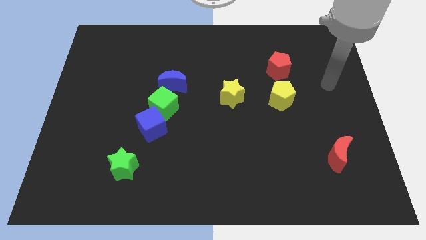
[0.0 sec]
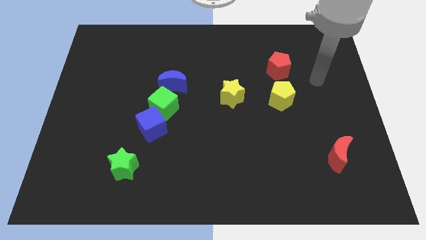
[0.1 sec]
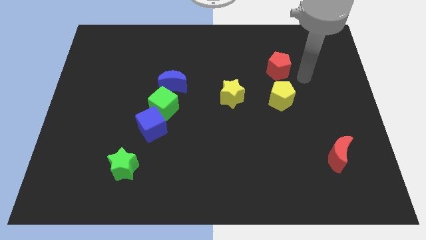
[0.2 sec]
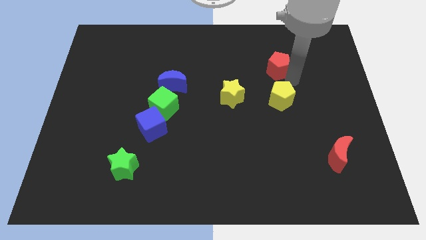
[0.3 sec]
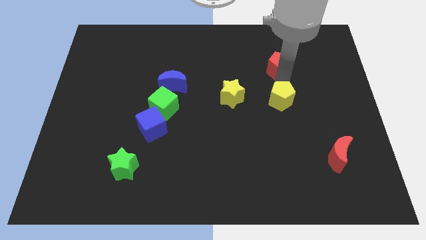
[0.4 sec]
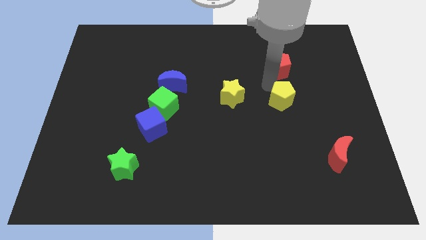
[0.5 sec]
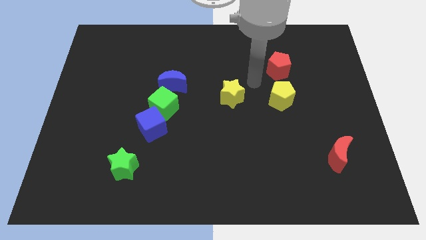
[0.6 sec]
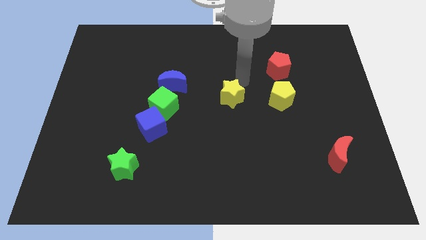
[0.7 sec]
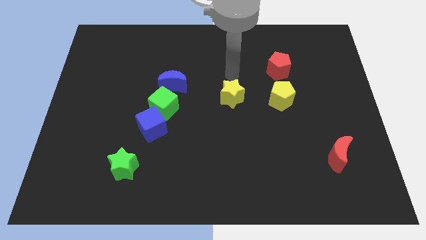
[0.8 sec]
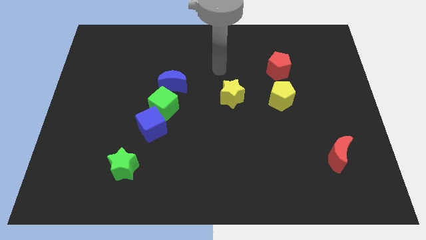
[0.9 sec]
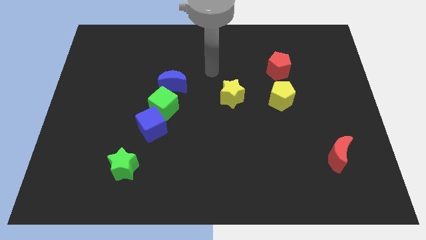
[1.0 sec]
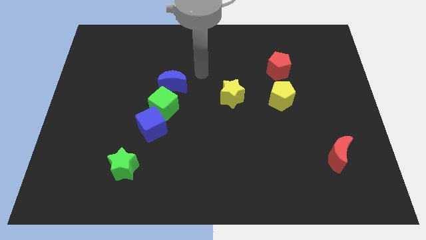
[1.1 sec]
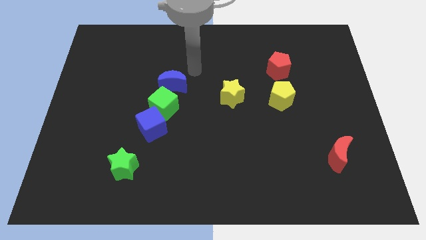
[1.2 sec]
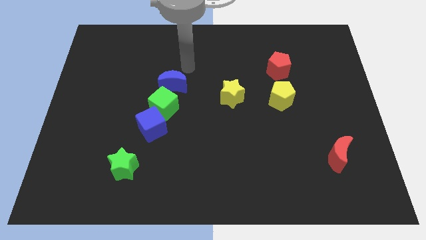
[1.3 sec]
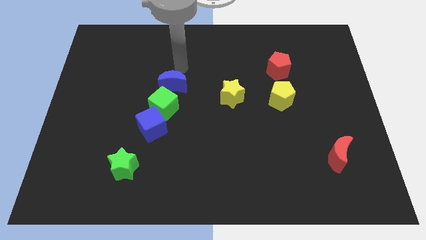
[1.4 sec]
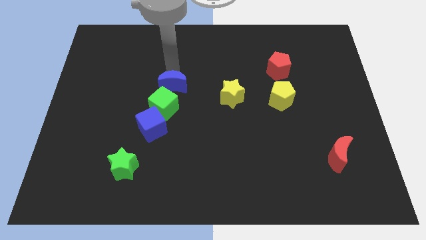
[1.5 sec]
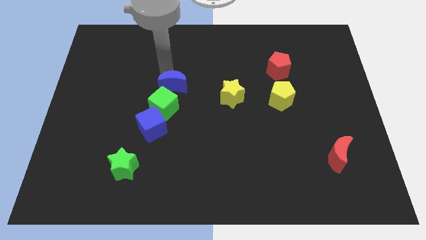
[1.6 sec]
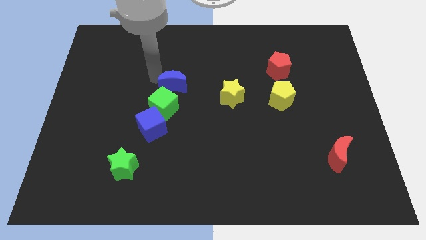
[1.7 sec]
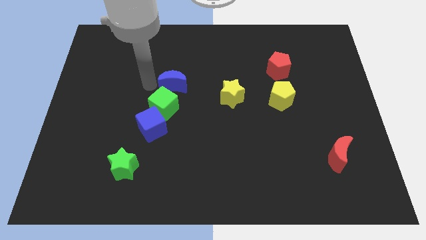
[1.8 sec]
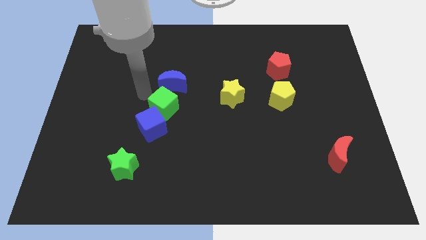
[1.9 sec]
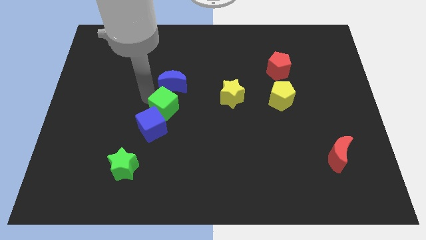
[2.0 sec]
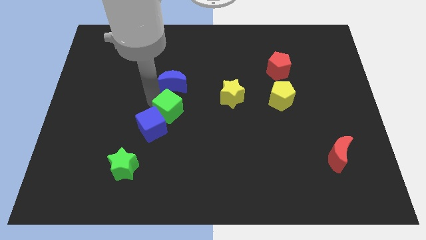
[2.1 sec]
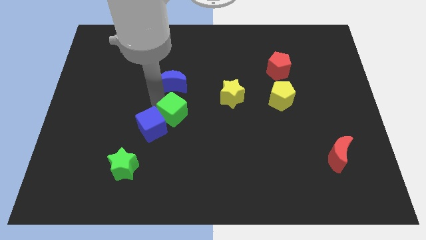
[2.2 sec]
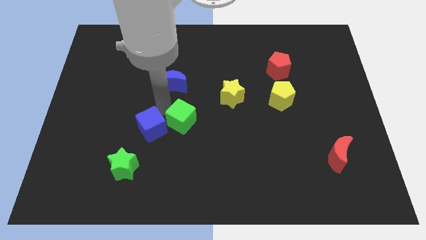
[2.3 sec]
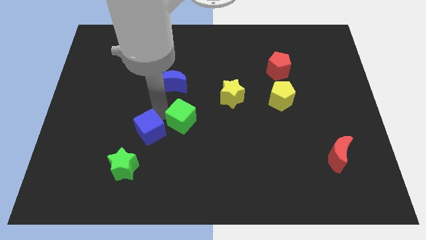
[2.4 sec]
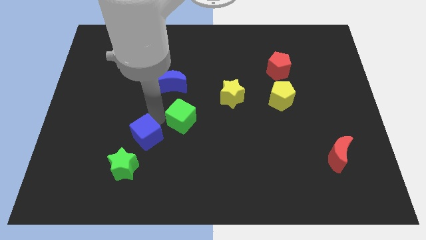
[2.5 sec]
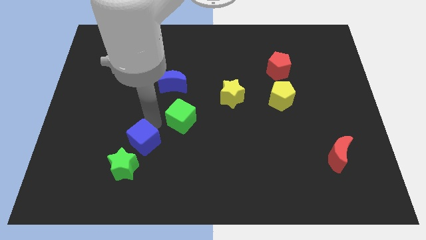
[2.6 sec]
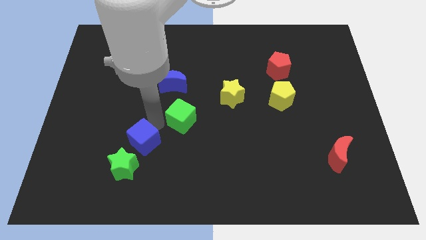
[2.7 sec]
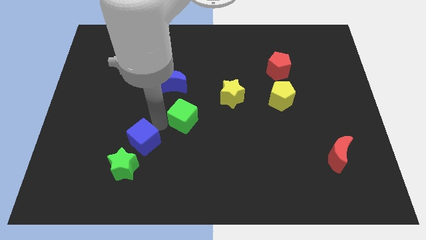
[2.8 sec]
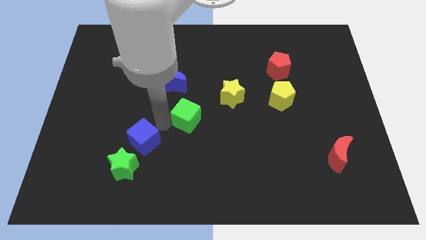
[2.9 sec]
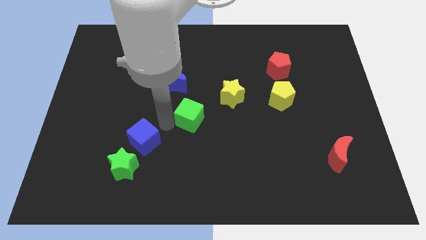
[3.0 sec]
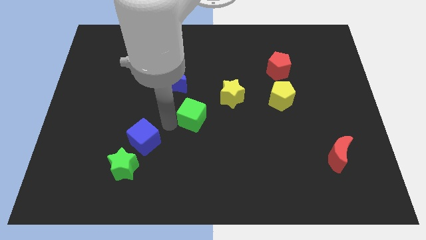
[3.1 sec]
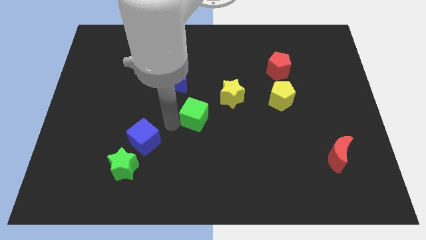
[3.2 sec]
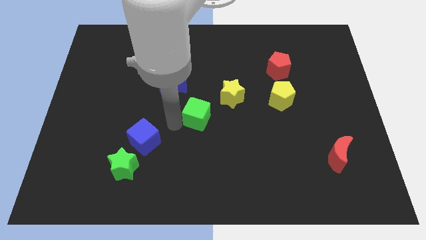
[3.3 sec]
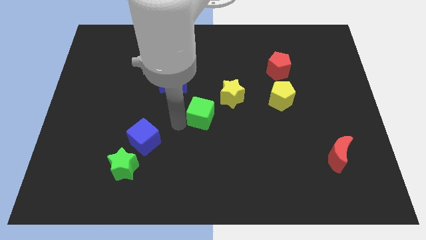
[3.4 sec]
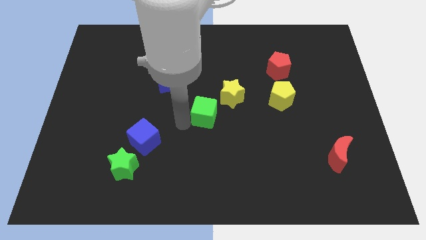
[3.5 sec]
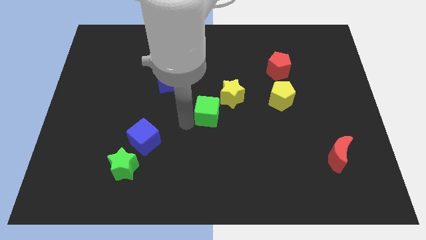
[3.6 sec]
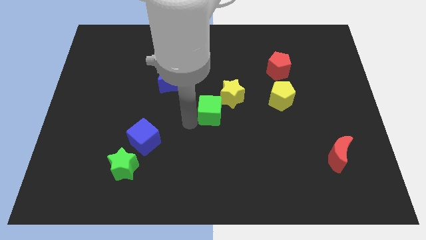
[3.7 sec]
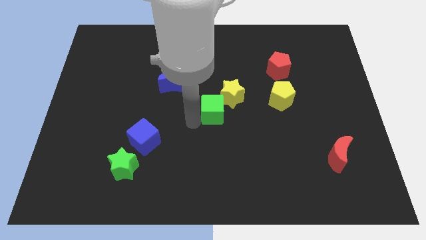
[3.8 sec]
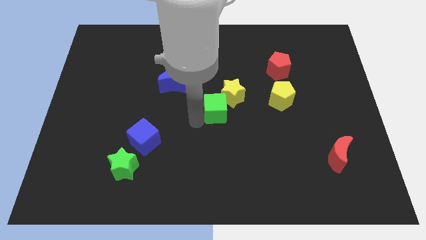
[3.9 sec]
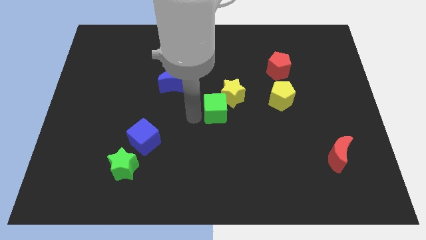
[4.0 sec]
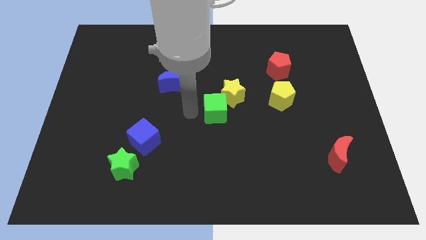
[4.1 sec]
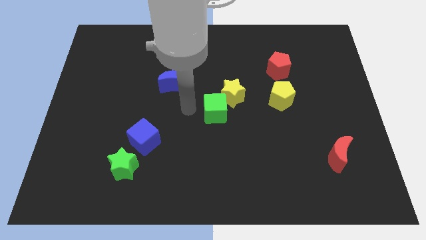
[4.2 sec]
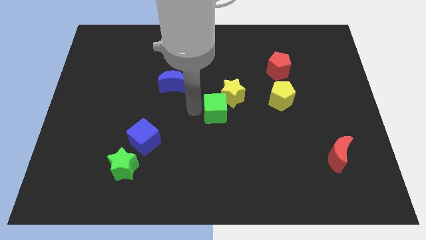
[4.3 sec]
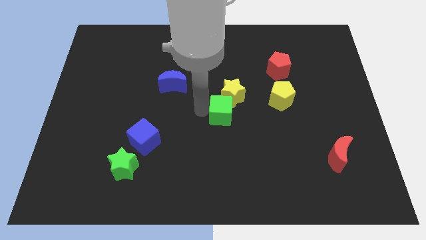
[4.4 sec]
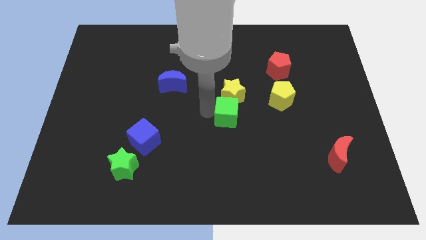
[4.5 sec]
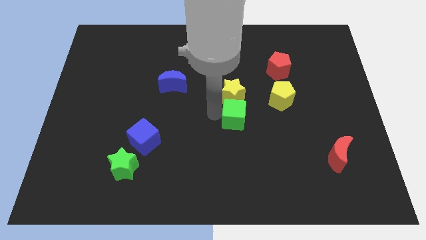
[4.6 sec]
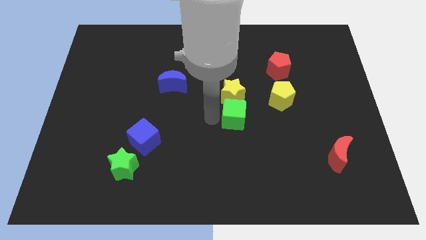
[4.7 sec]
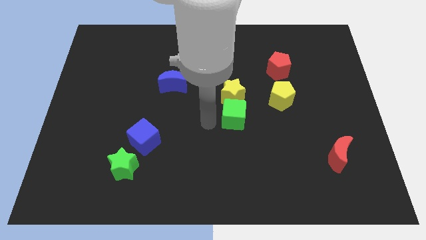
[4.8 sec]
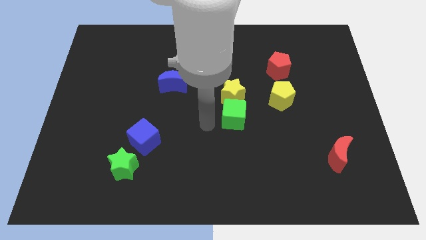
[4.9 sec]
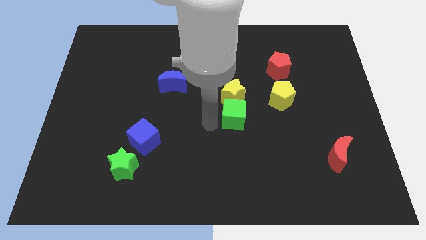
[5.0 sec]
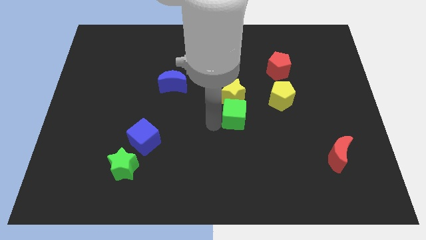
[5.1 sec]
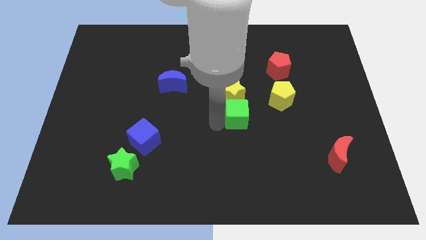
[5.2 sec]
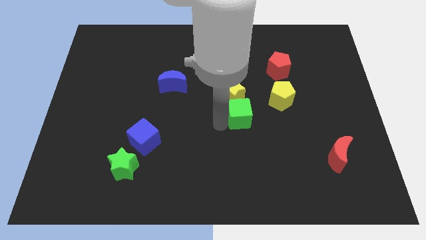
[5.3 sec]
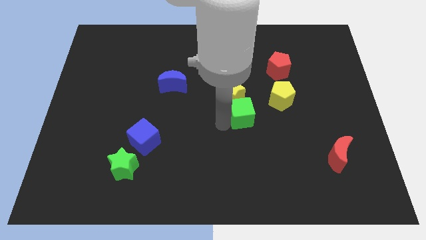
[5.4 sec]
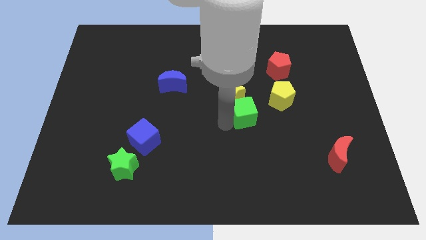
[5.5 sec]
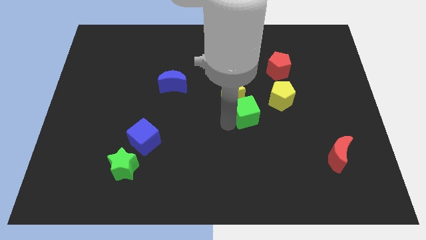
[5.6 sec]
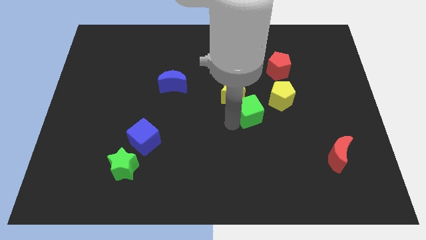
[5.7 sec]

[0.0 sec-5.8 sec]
move the green cube right

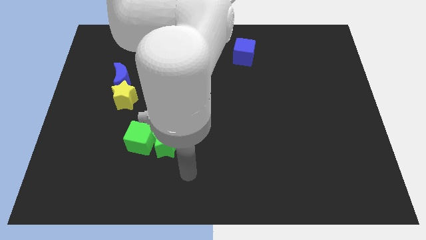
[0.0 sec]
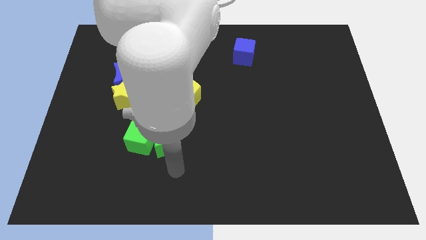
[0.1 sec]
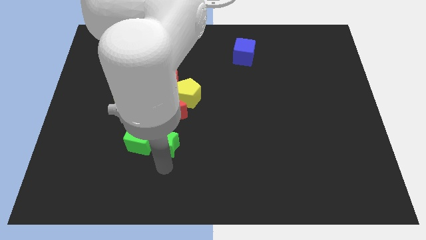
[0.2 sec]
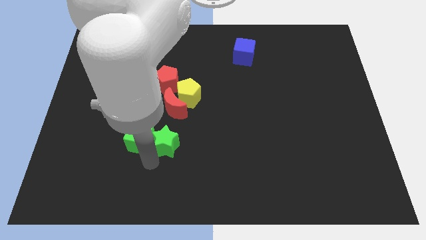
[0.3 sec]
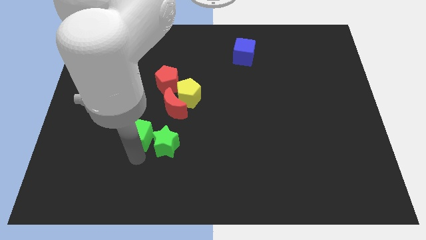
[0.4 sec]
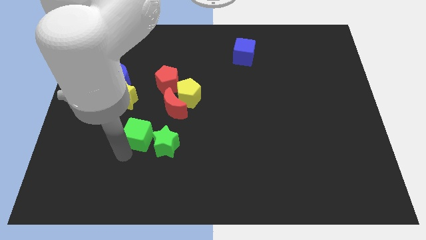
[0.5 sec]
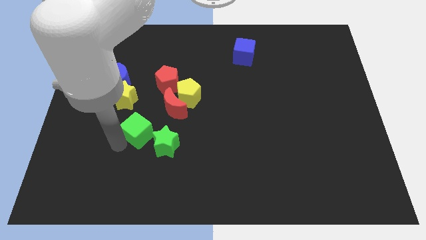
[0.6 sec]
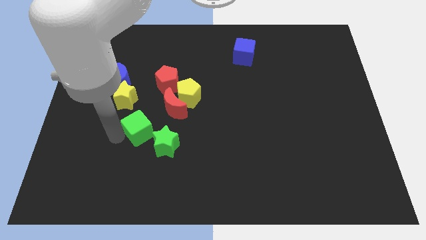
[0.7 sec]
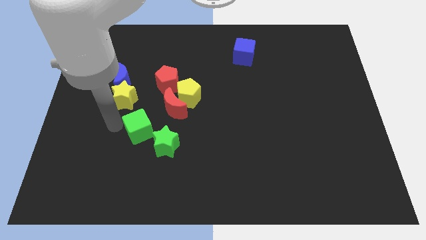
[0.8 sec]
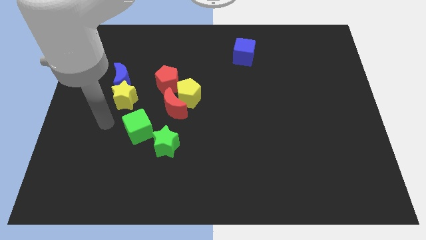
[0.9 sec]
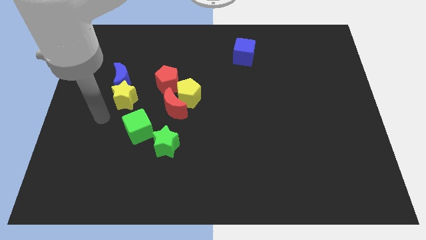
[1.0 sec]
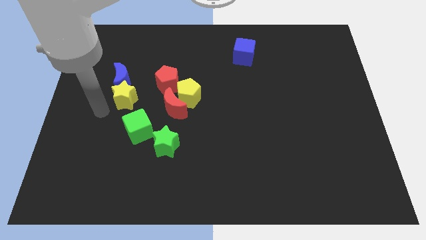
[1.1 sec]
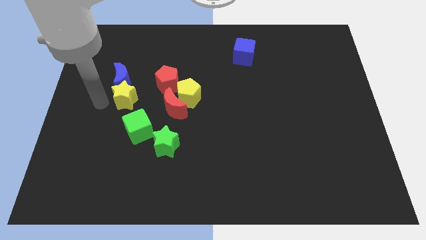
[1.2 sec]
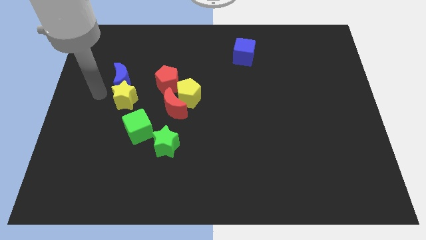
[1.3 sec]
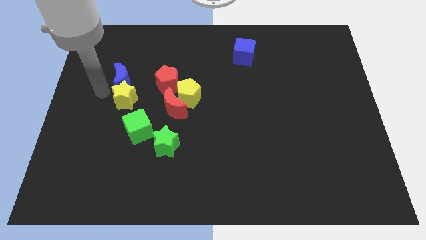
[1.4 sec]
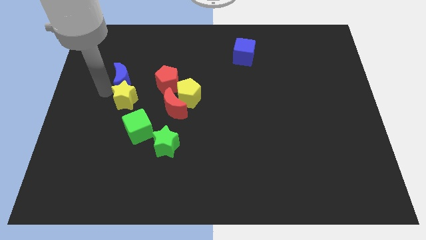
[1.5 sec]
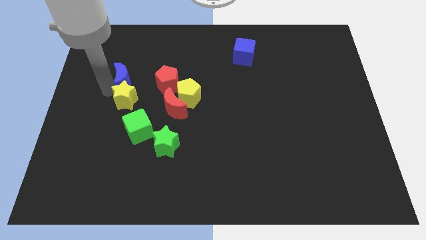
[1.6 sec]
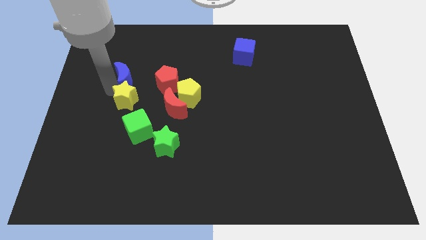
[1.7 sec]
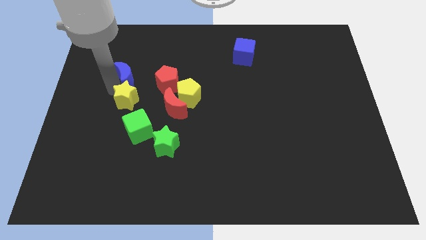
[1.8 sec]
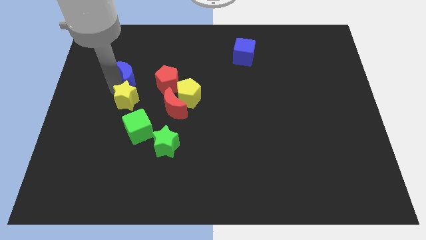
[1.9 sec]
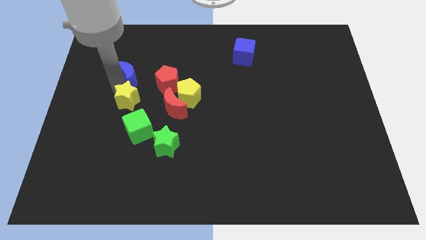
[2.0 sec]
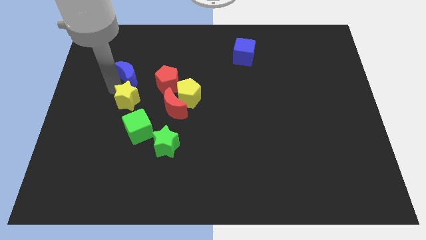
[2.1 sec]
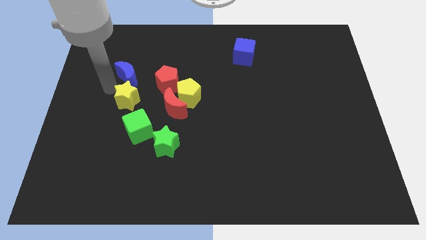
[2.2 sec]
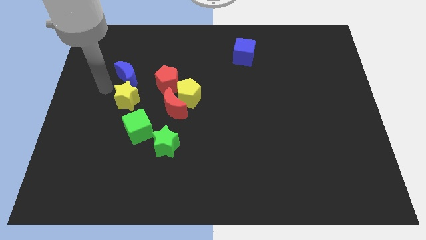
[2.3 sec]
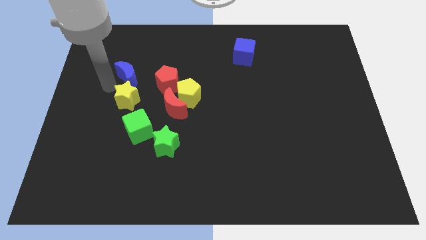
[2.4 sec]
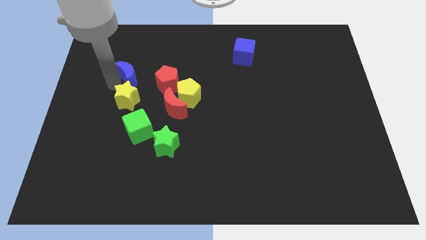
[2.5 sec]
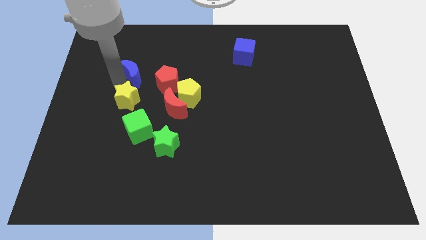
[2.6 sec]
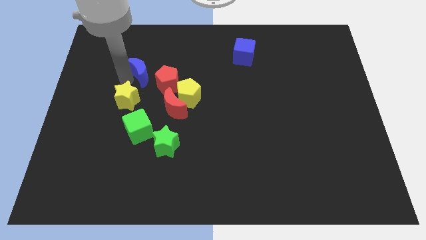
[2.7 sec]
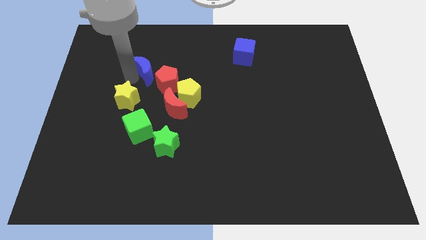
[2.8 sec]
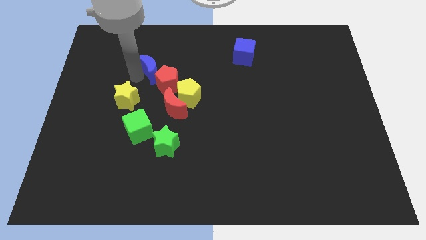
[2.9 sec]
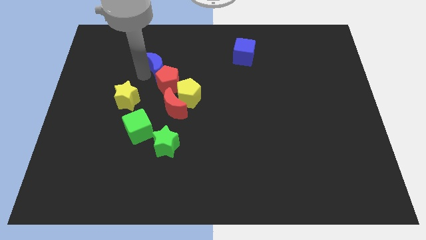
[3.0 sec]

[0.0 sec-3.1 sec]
slide the blue moon a bit right
